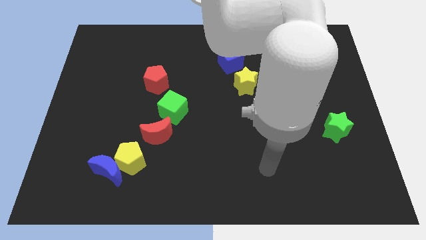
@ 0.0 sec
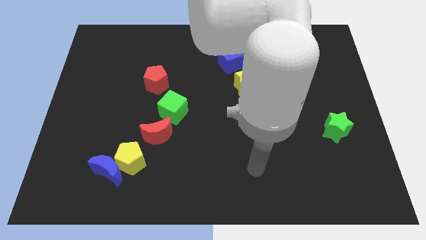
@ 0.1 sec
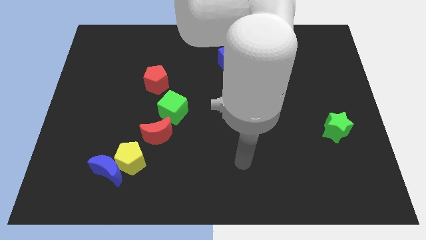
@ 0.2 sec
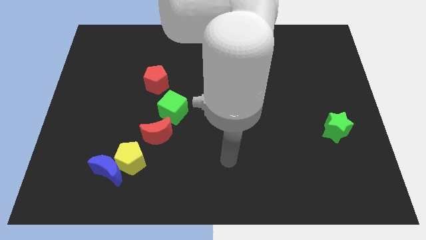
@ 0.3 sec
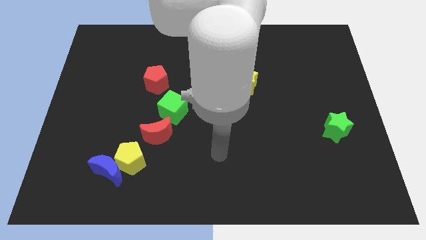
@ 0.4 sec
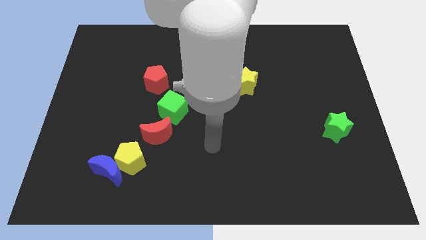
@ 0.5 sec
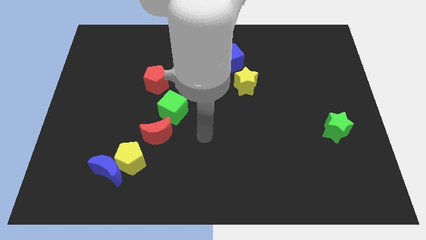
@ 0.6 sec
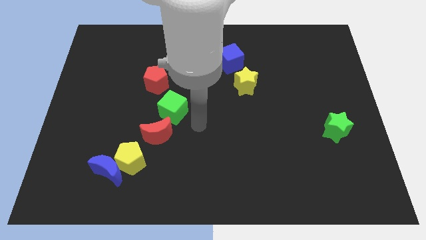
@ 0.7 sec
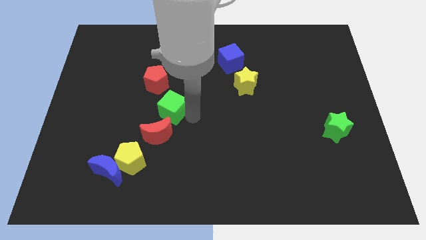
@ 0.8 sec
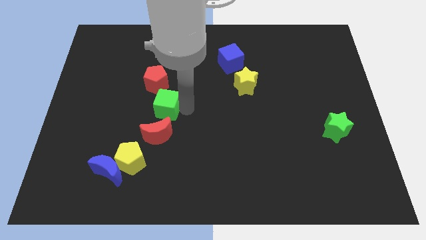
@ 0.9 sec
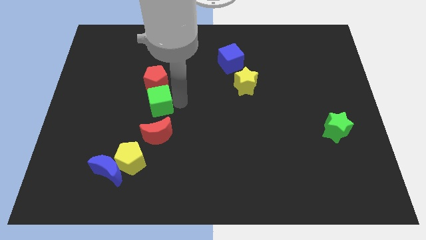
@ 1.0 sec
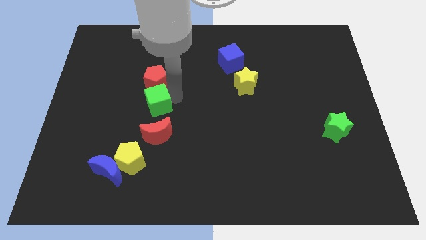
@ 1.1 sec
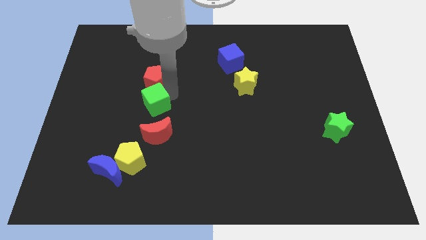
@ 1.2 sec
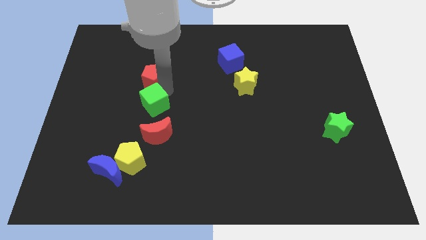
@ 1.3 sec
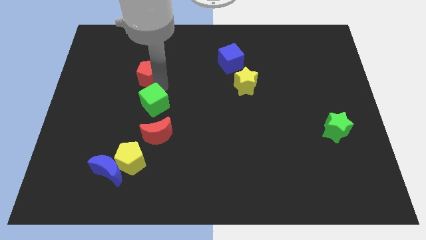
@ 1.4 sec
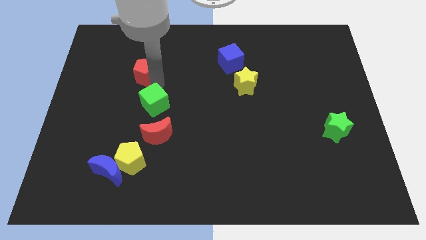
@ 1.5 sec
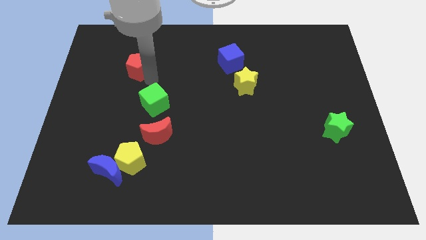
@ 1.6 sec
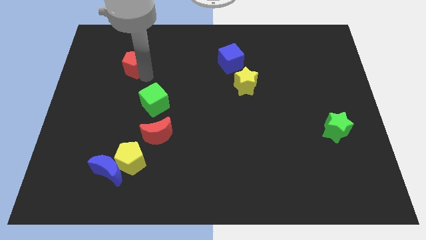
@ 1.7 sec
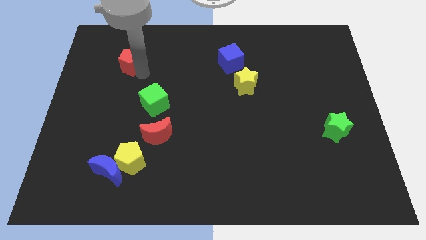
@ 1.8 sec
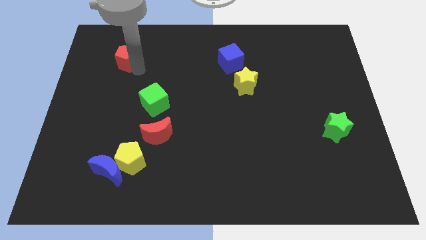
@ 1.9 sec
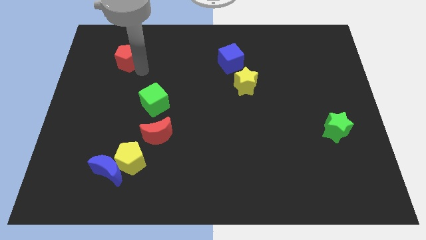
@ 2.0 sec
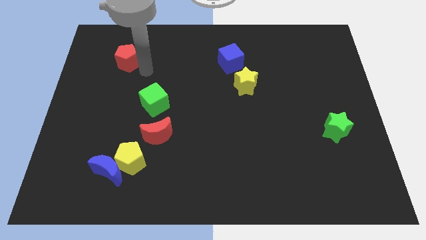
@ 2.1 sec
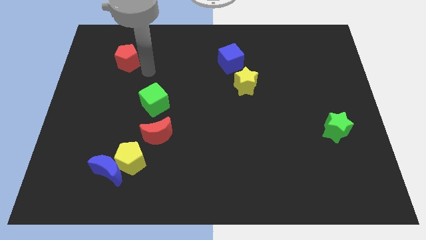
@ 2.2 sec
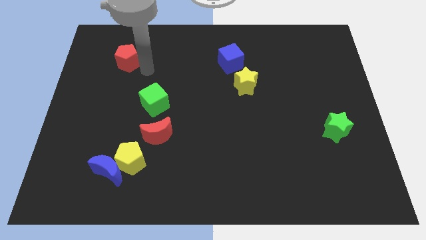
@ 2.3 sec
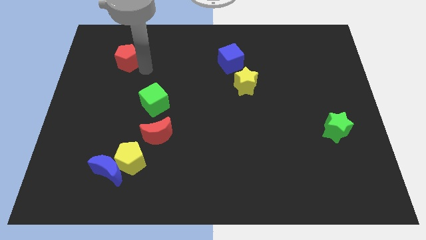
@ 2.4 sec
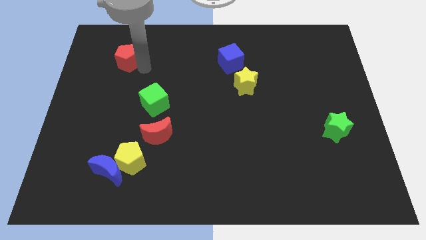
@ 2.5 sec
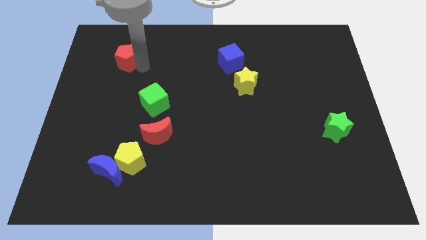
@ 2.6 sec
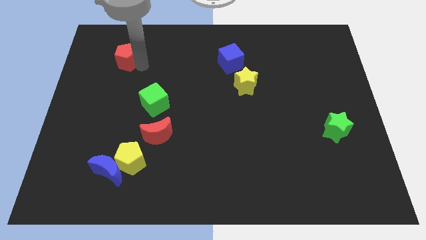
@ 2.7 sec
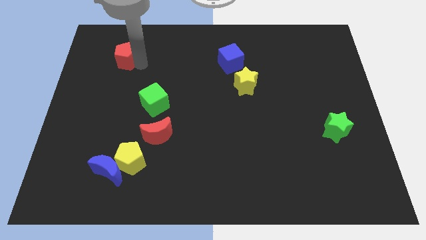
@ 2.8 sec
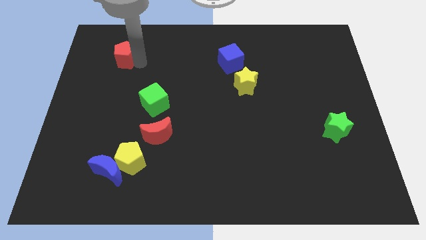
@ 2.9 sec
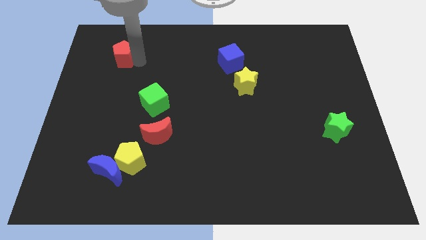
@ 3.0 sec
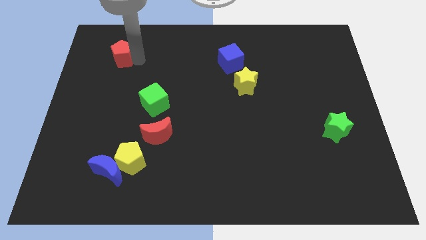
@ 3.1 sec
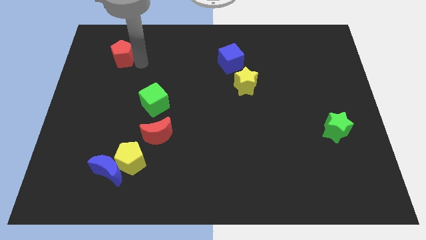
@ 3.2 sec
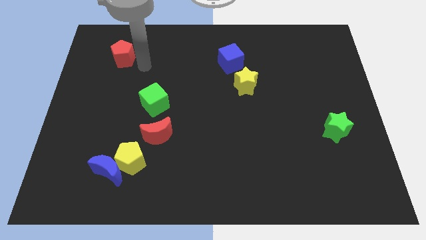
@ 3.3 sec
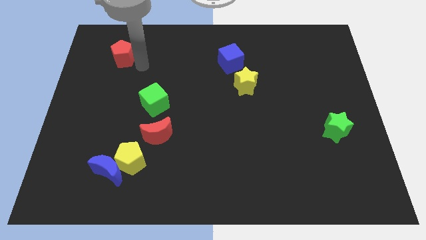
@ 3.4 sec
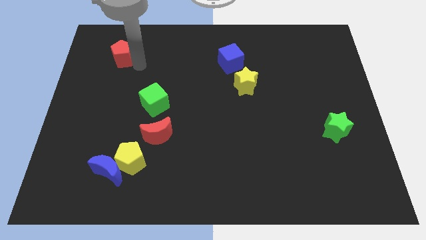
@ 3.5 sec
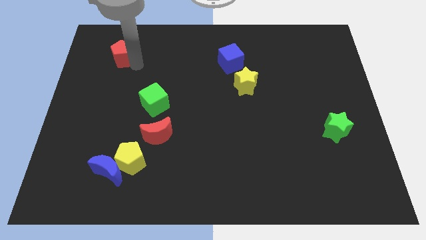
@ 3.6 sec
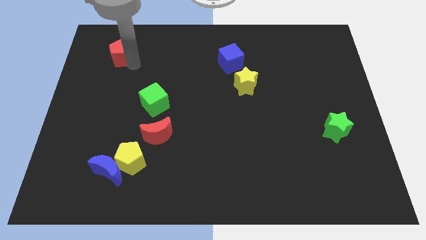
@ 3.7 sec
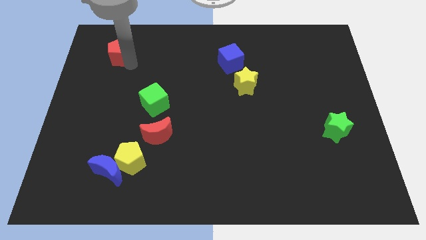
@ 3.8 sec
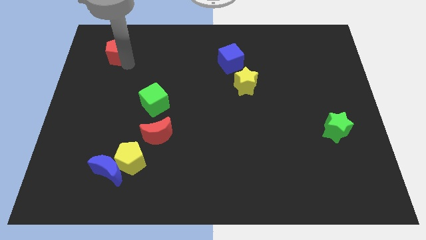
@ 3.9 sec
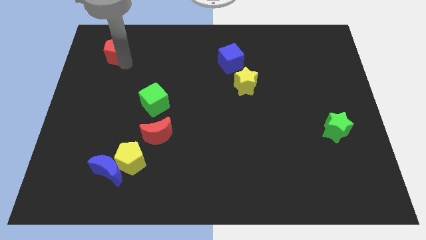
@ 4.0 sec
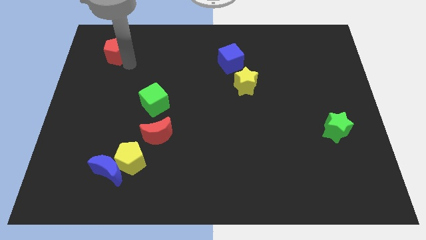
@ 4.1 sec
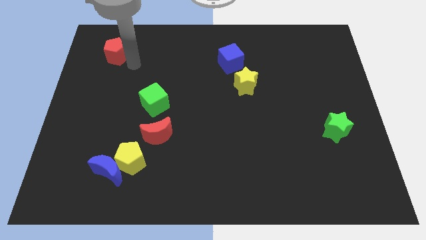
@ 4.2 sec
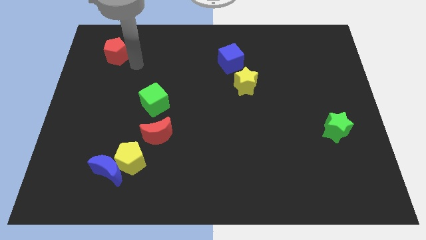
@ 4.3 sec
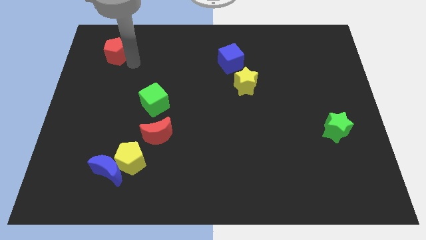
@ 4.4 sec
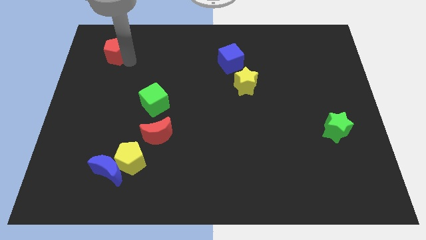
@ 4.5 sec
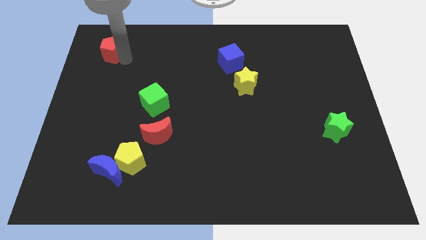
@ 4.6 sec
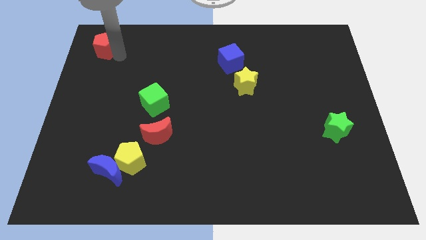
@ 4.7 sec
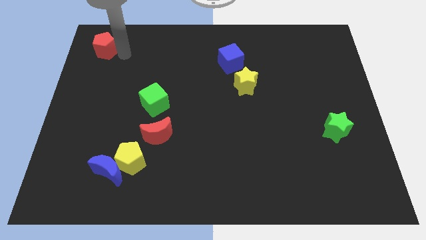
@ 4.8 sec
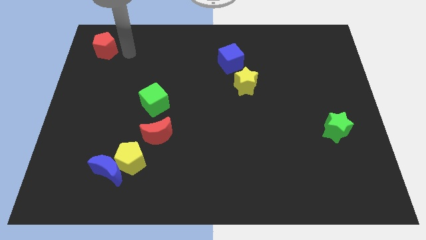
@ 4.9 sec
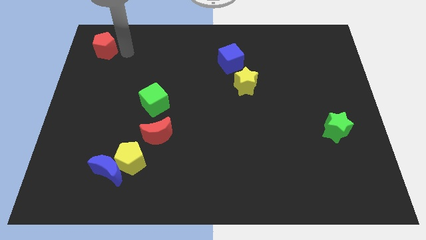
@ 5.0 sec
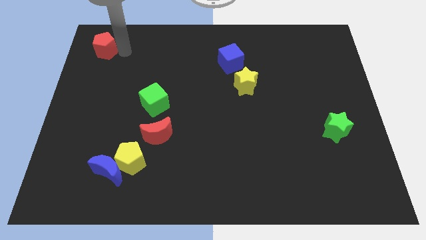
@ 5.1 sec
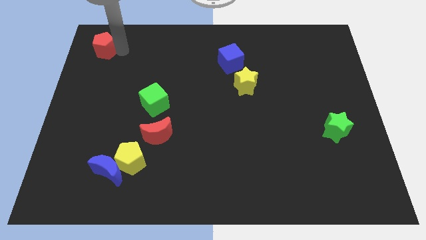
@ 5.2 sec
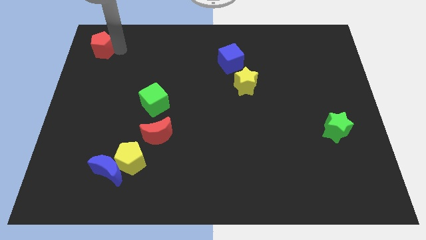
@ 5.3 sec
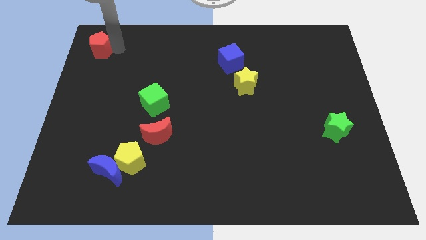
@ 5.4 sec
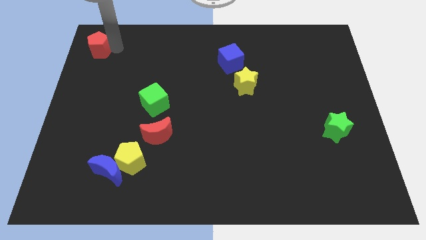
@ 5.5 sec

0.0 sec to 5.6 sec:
push the red pentagon to the top left
